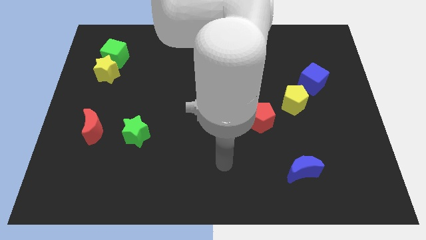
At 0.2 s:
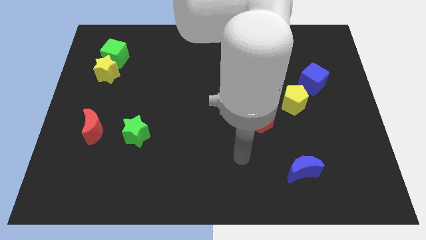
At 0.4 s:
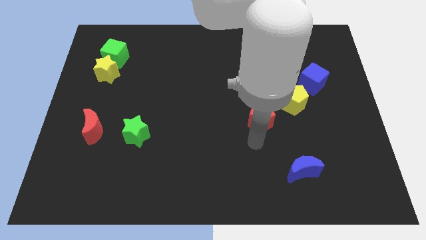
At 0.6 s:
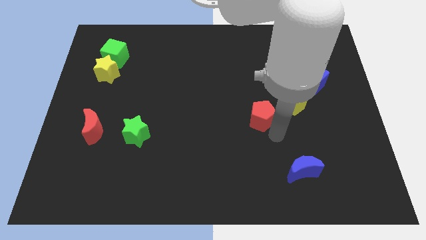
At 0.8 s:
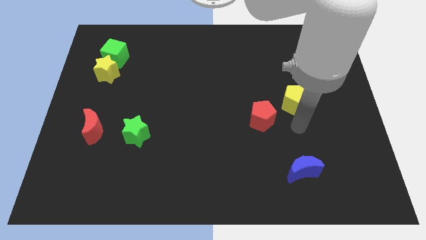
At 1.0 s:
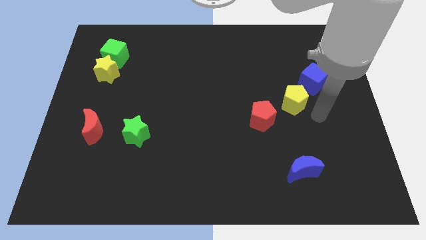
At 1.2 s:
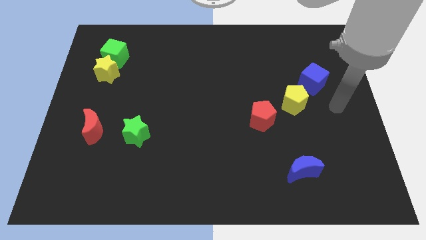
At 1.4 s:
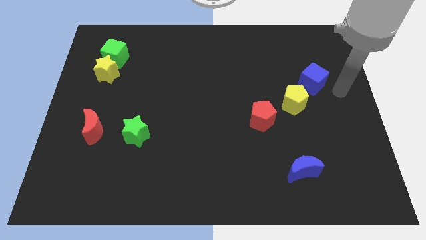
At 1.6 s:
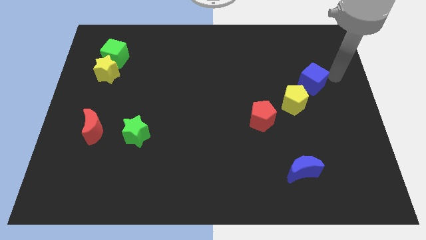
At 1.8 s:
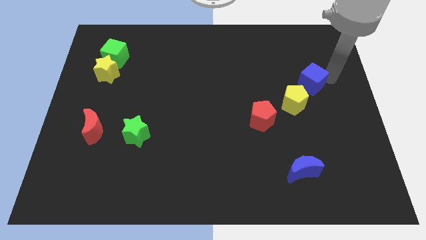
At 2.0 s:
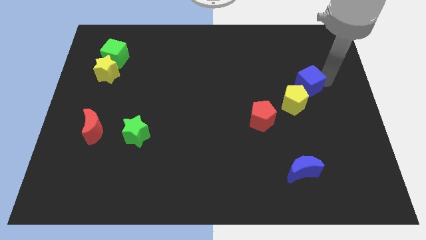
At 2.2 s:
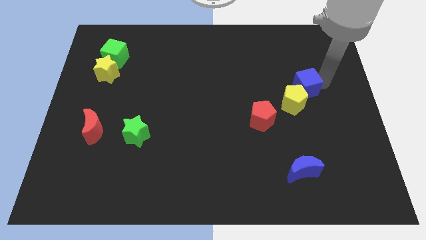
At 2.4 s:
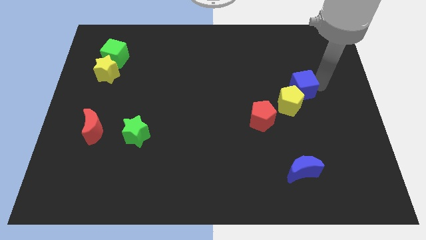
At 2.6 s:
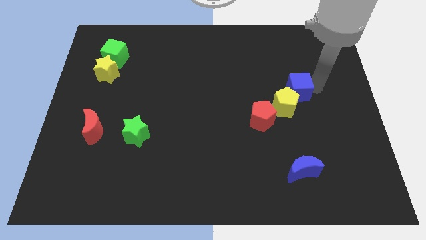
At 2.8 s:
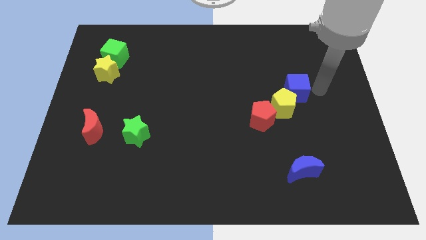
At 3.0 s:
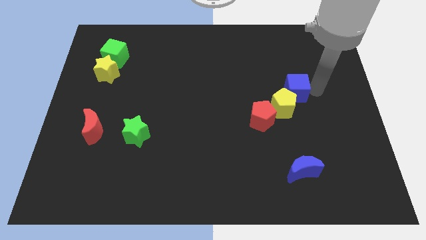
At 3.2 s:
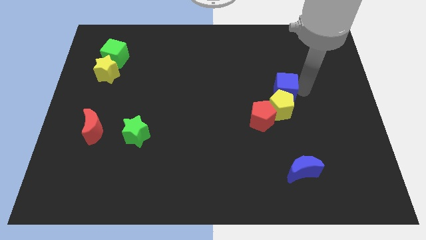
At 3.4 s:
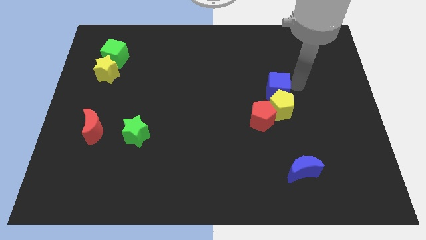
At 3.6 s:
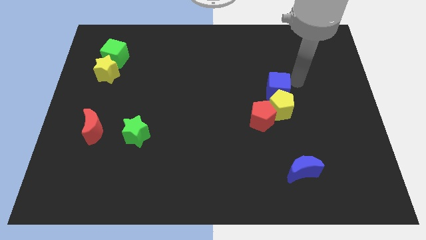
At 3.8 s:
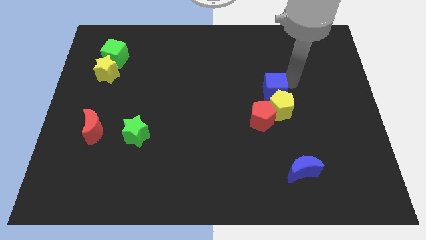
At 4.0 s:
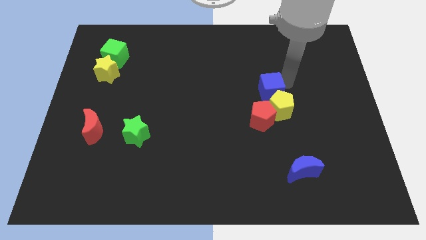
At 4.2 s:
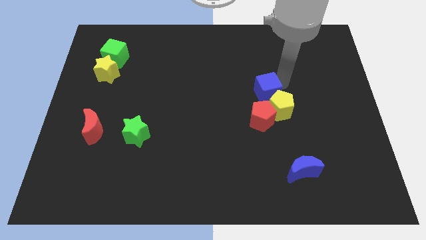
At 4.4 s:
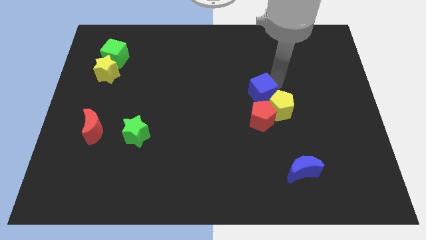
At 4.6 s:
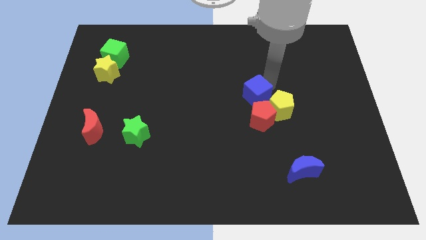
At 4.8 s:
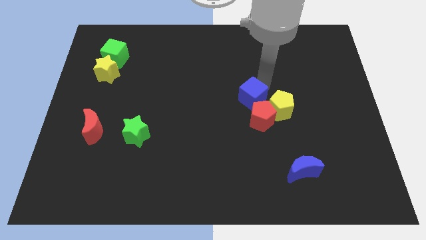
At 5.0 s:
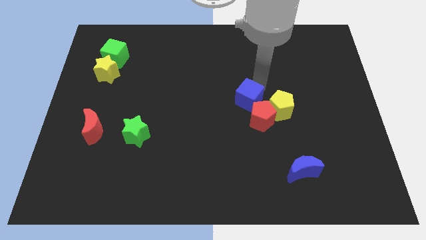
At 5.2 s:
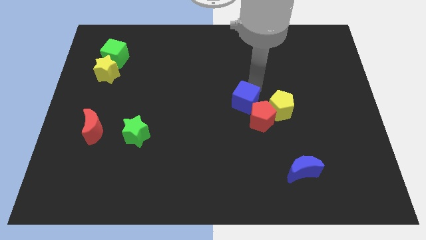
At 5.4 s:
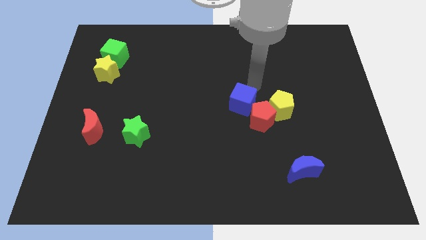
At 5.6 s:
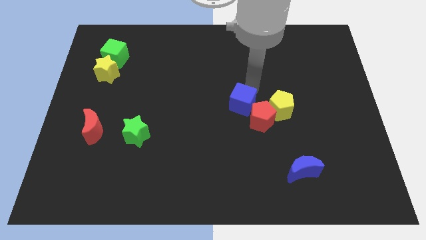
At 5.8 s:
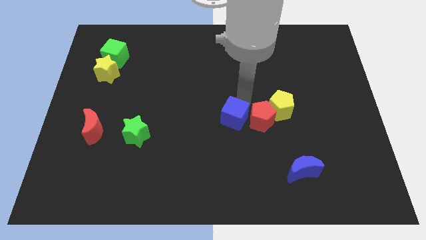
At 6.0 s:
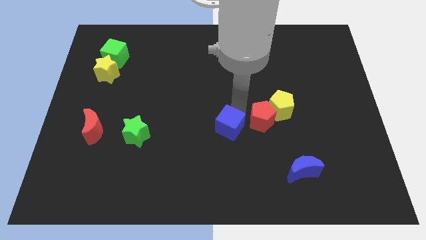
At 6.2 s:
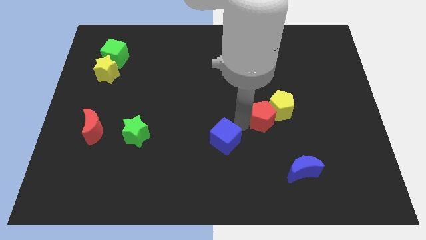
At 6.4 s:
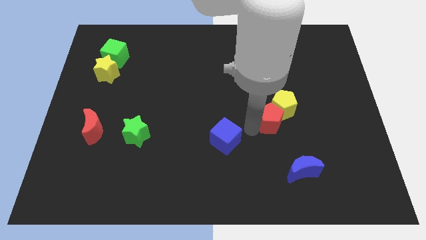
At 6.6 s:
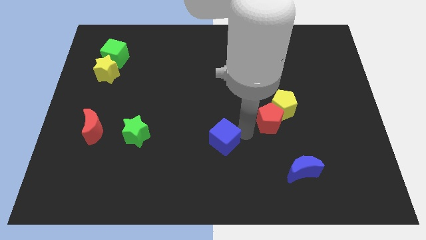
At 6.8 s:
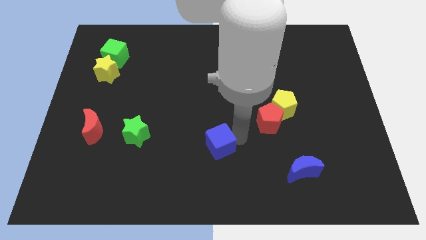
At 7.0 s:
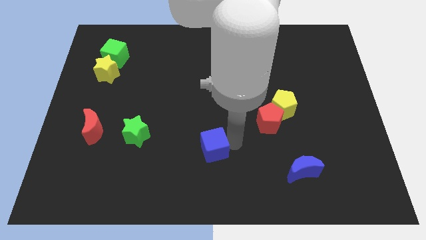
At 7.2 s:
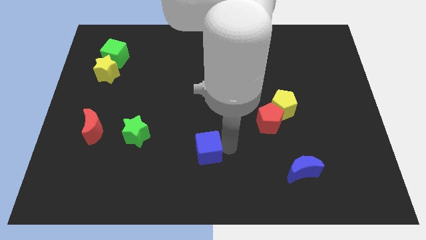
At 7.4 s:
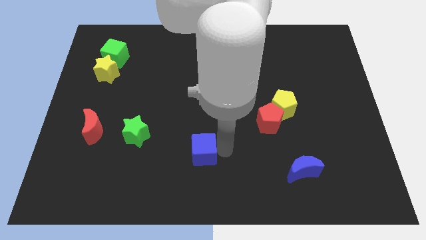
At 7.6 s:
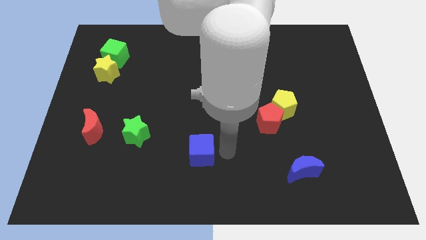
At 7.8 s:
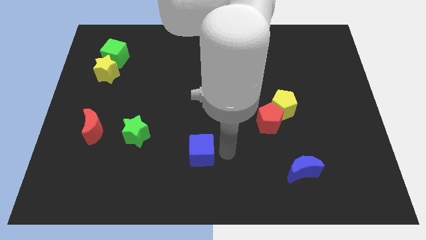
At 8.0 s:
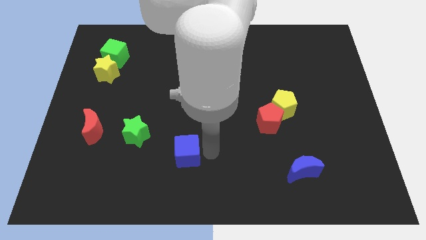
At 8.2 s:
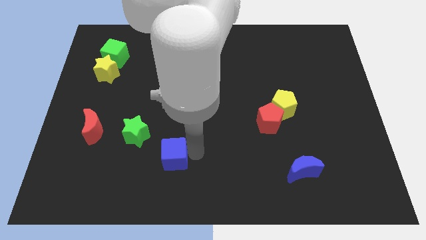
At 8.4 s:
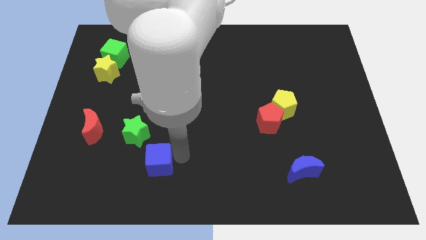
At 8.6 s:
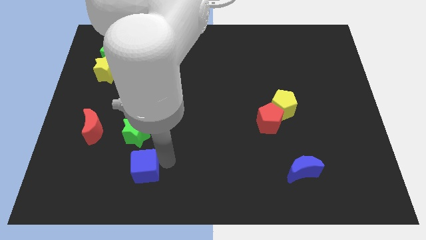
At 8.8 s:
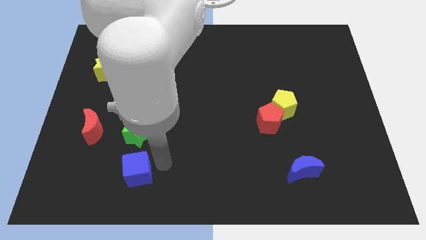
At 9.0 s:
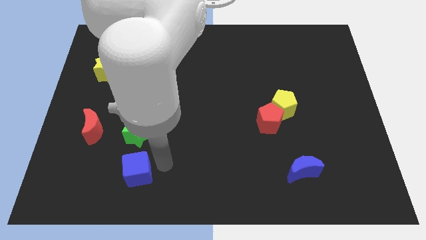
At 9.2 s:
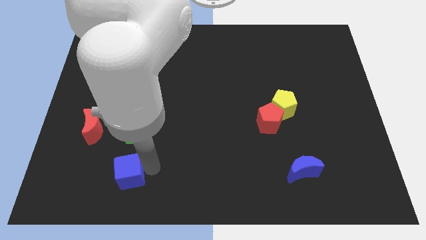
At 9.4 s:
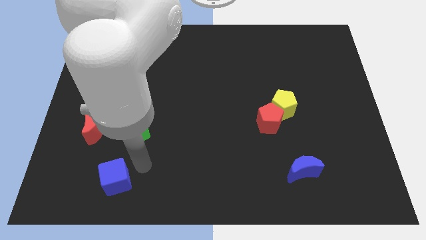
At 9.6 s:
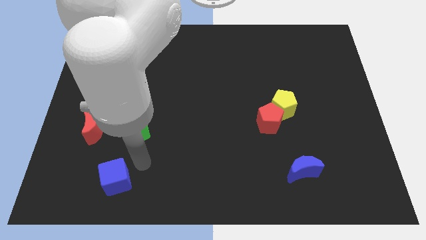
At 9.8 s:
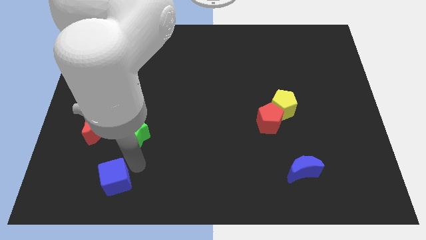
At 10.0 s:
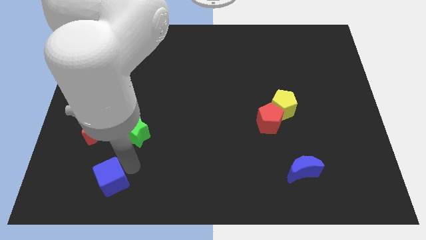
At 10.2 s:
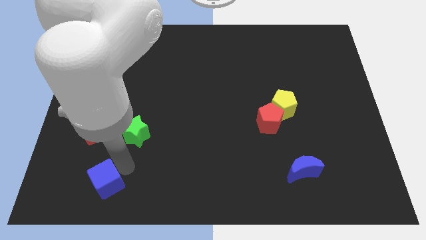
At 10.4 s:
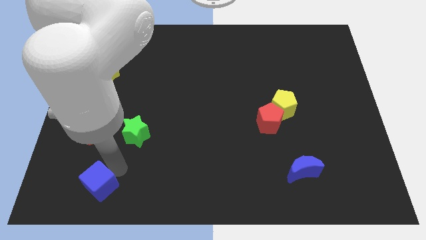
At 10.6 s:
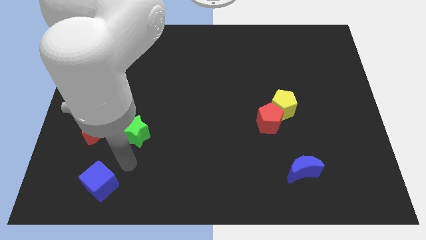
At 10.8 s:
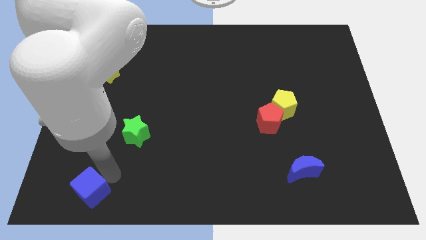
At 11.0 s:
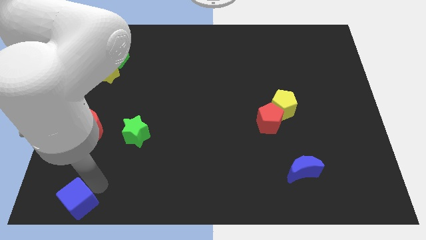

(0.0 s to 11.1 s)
slide the blue cube to the lower left corner

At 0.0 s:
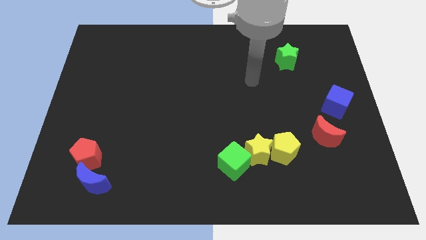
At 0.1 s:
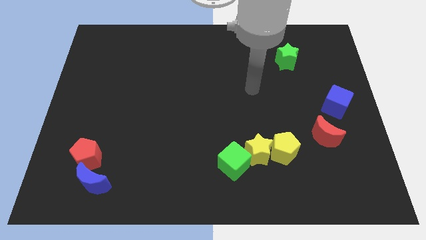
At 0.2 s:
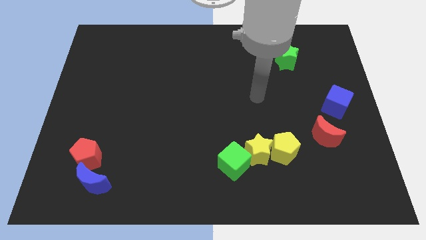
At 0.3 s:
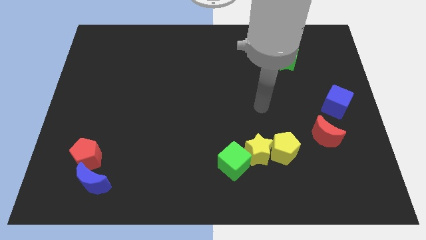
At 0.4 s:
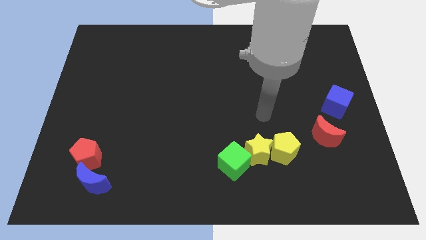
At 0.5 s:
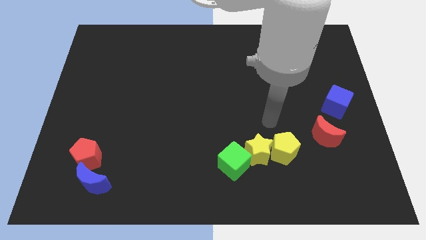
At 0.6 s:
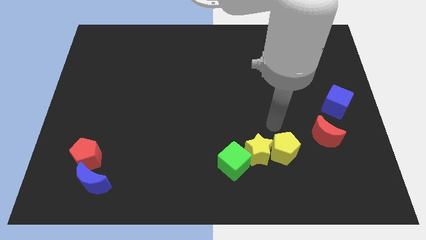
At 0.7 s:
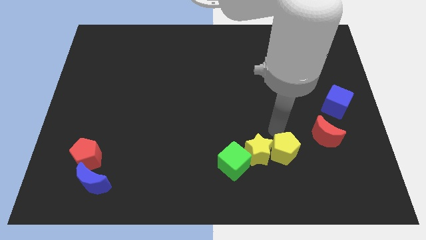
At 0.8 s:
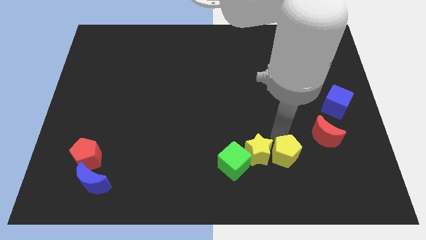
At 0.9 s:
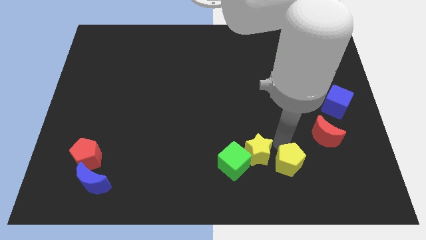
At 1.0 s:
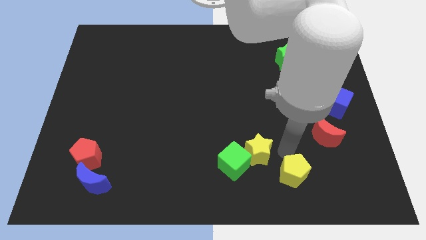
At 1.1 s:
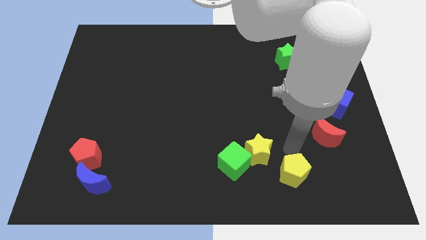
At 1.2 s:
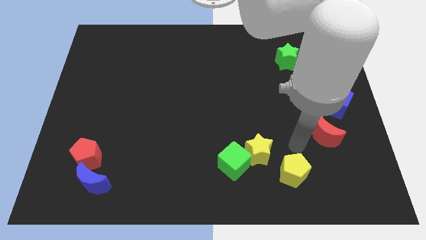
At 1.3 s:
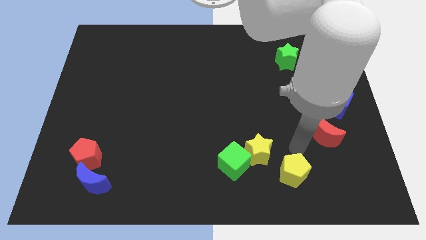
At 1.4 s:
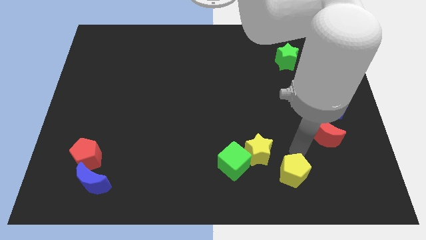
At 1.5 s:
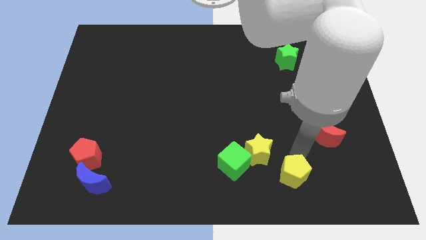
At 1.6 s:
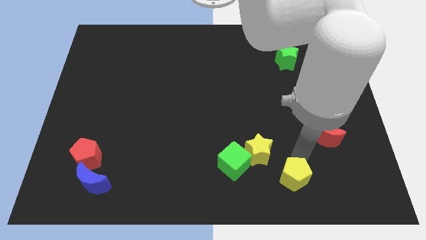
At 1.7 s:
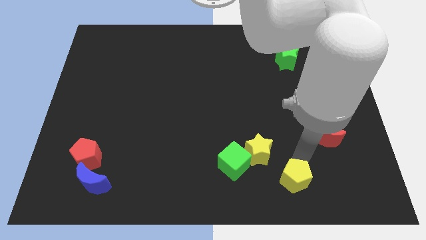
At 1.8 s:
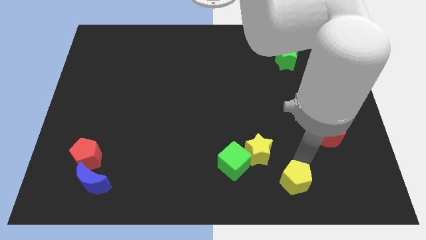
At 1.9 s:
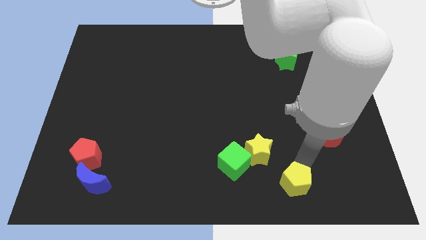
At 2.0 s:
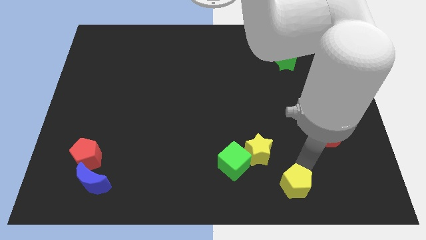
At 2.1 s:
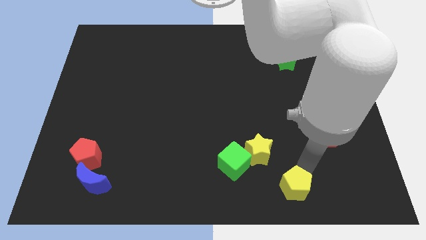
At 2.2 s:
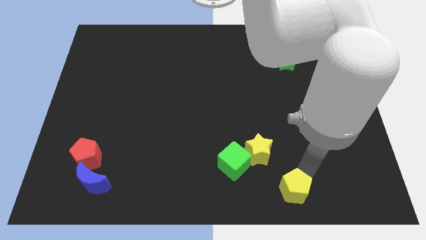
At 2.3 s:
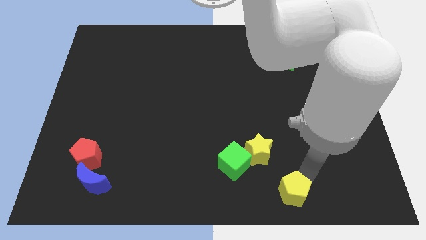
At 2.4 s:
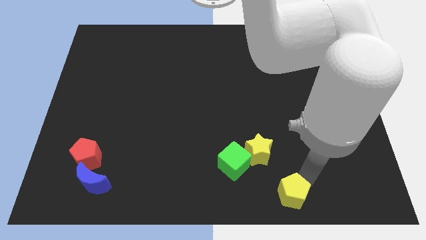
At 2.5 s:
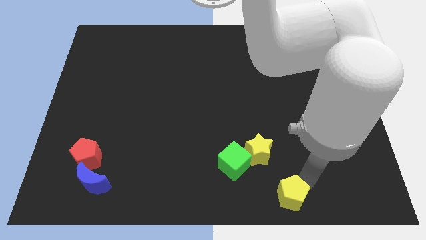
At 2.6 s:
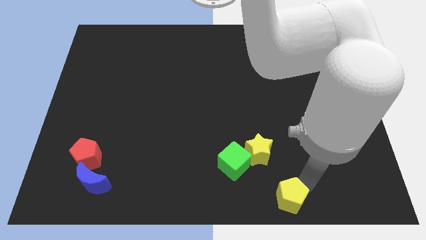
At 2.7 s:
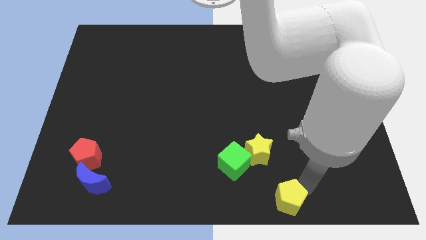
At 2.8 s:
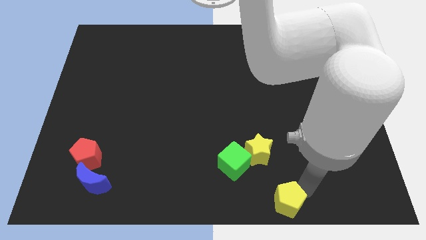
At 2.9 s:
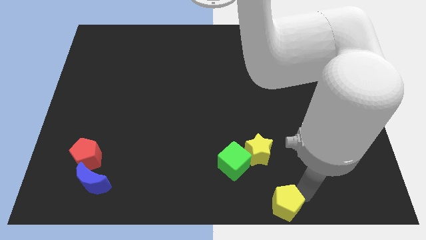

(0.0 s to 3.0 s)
slide the yellow pentagon to the bottom side
